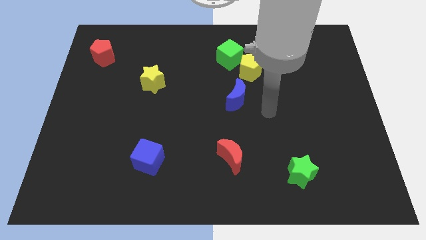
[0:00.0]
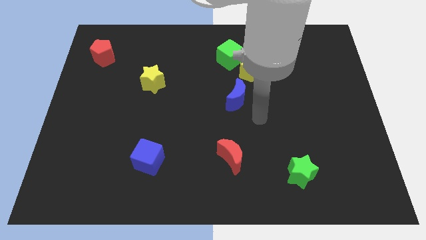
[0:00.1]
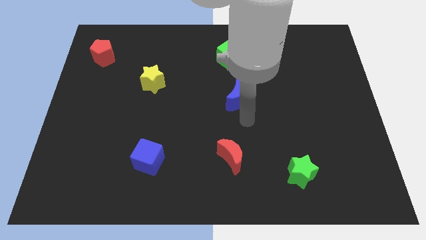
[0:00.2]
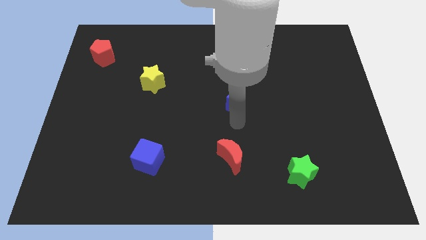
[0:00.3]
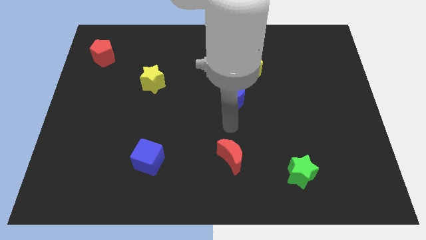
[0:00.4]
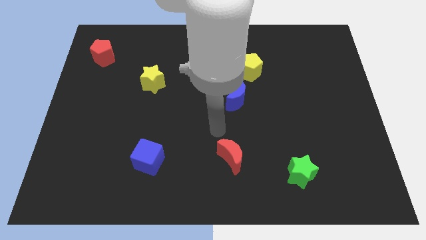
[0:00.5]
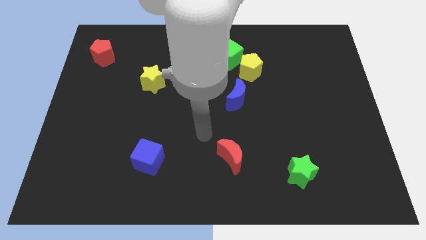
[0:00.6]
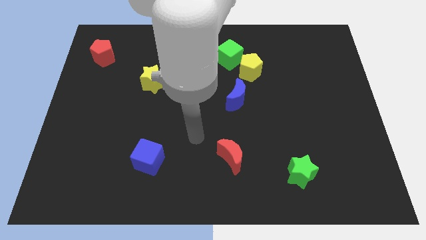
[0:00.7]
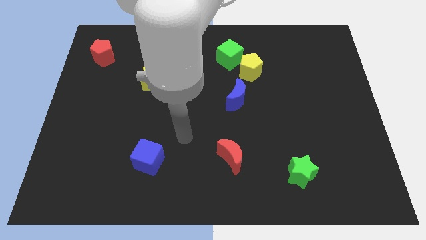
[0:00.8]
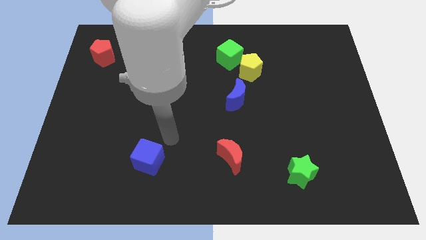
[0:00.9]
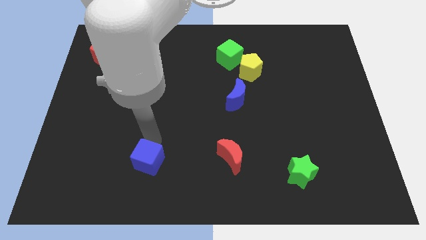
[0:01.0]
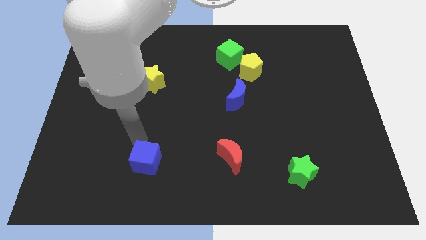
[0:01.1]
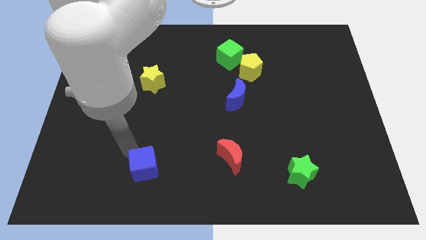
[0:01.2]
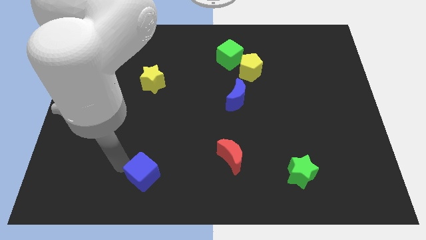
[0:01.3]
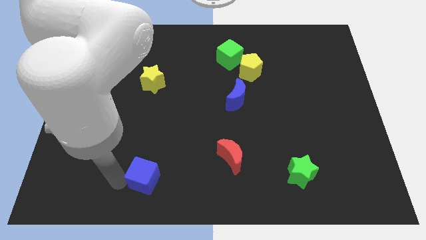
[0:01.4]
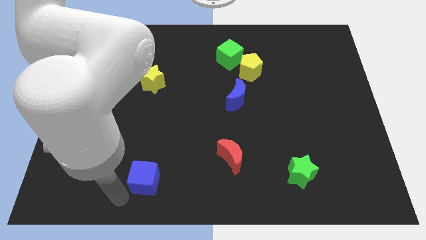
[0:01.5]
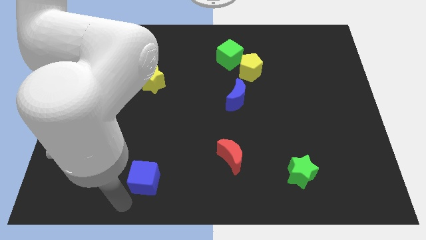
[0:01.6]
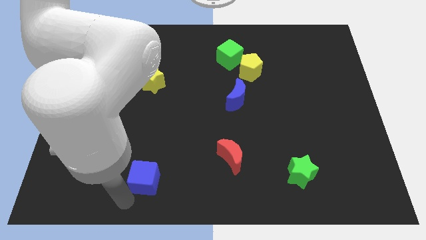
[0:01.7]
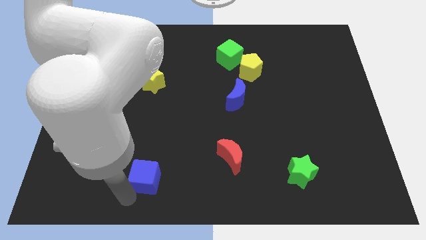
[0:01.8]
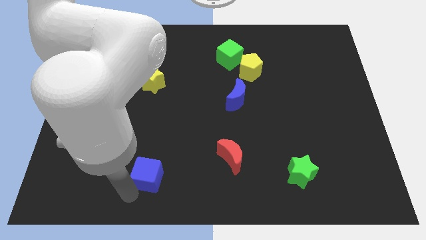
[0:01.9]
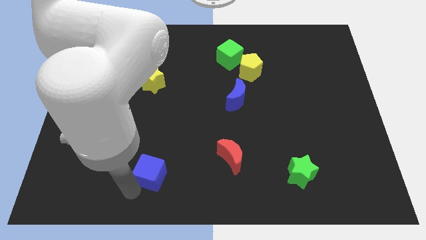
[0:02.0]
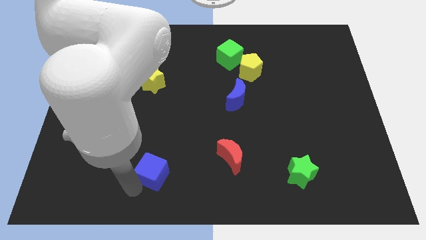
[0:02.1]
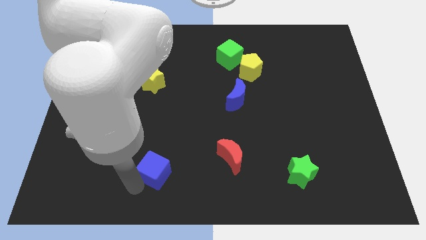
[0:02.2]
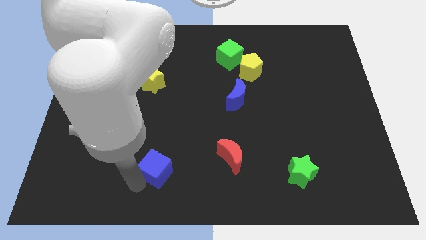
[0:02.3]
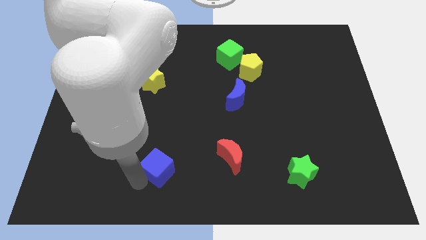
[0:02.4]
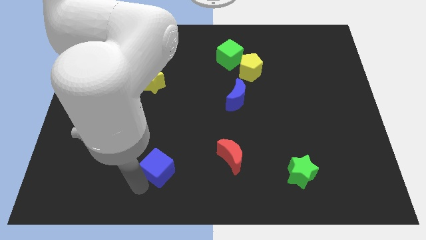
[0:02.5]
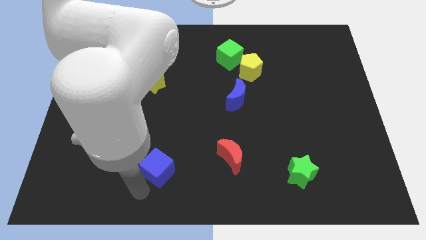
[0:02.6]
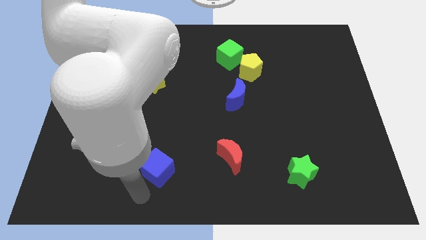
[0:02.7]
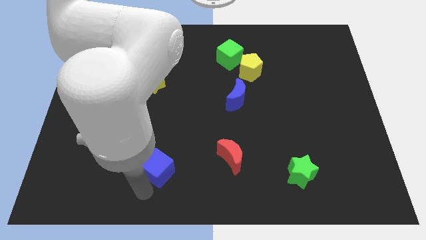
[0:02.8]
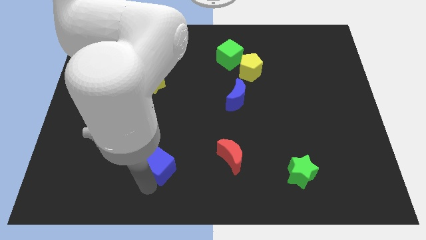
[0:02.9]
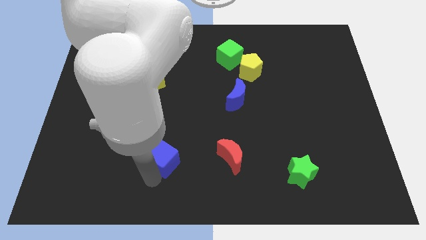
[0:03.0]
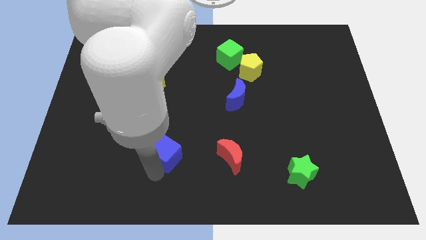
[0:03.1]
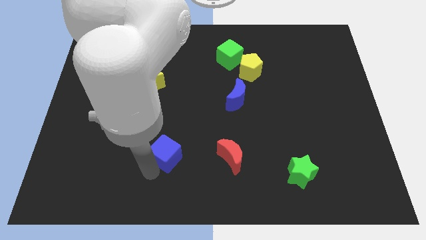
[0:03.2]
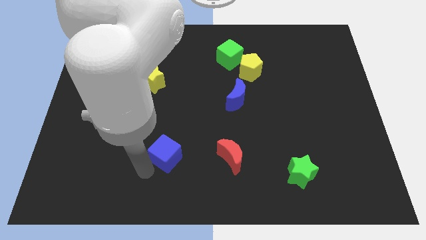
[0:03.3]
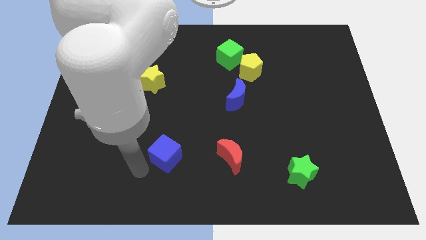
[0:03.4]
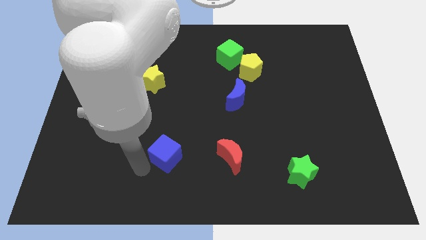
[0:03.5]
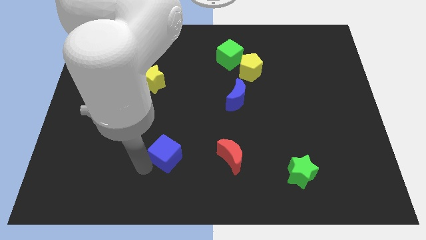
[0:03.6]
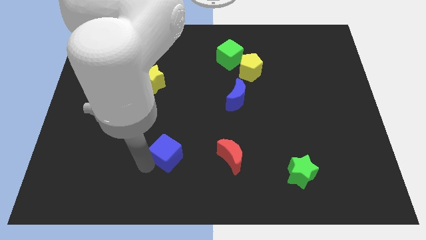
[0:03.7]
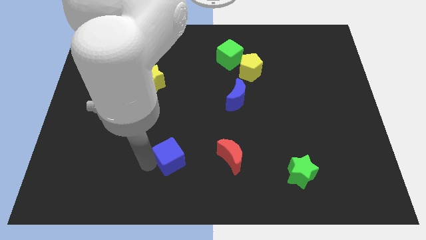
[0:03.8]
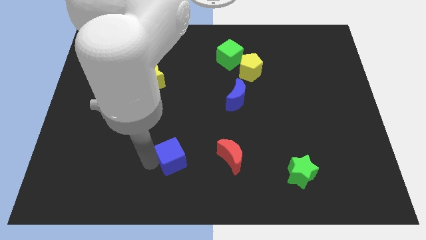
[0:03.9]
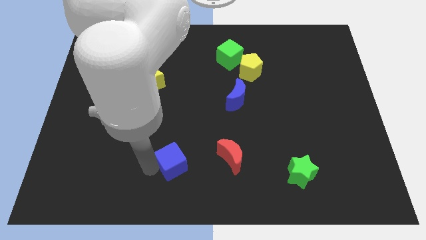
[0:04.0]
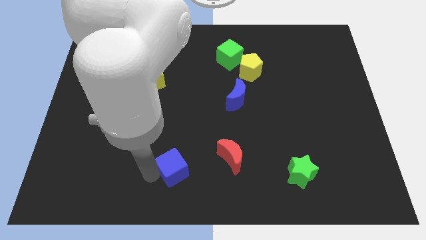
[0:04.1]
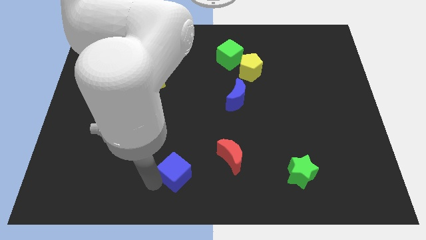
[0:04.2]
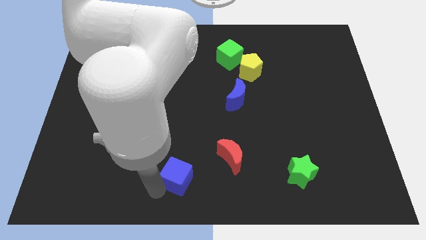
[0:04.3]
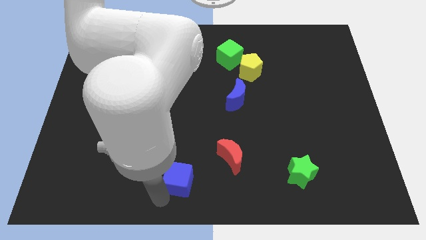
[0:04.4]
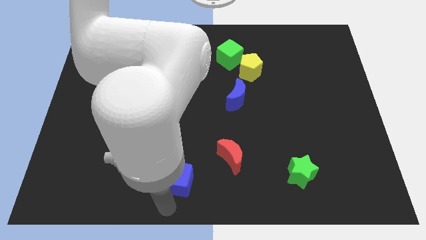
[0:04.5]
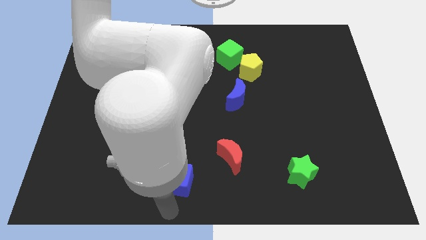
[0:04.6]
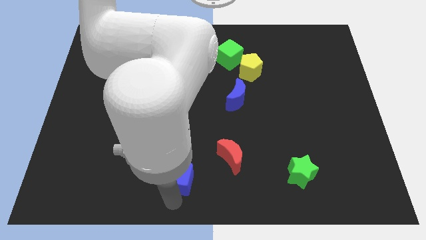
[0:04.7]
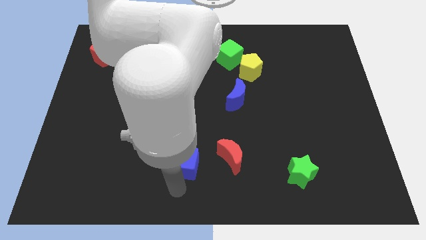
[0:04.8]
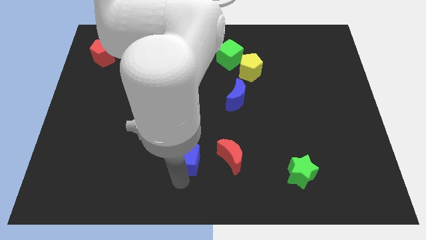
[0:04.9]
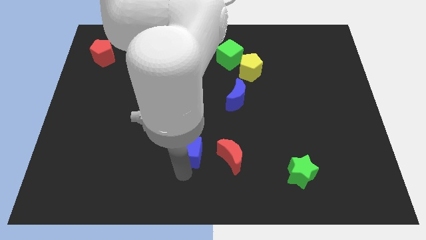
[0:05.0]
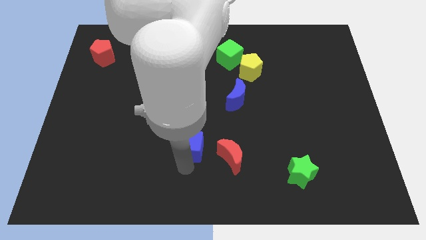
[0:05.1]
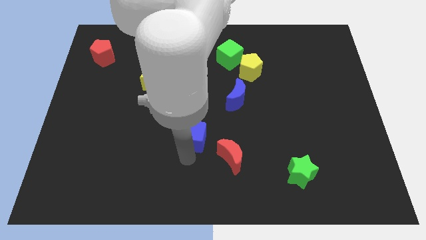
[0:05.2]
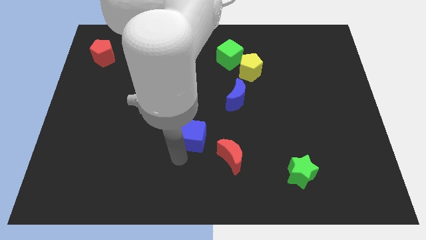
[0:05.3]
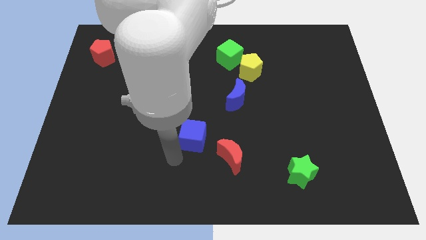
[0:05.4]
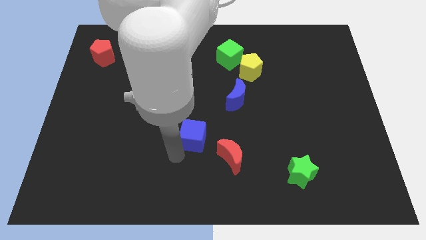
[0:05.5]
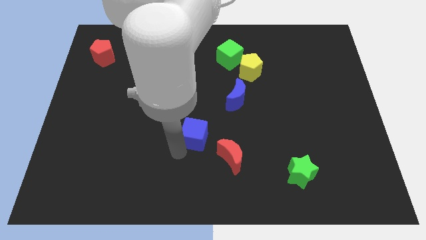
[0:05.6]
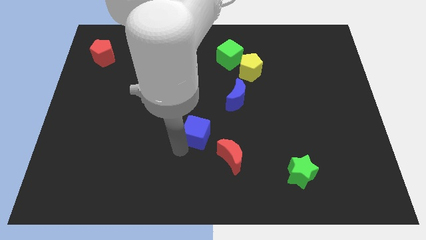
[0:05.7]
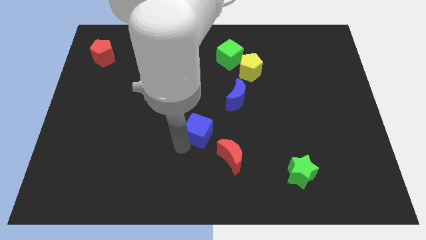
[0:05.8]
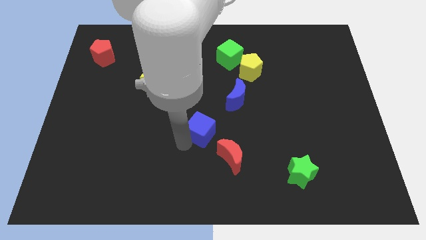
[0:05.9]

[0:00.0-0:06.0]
push the blue cube to the bottom left of the blue moon
